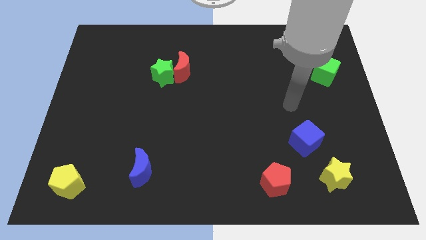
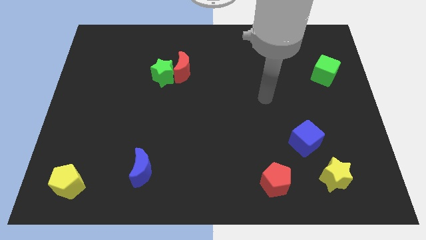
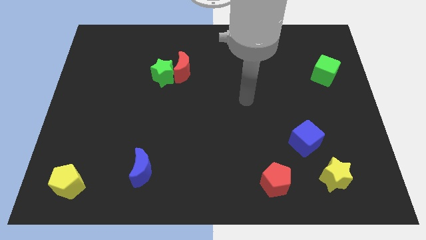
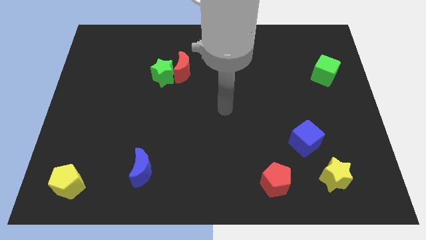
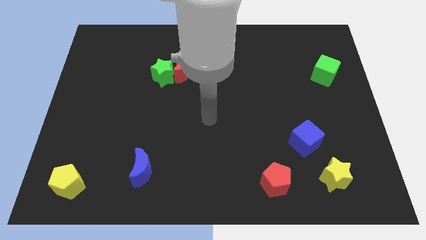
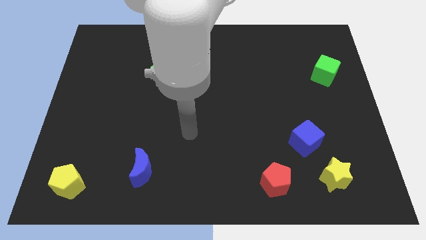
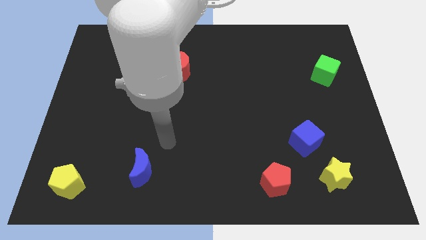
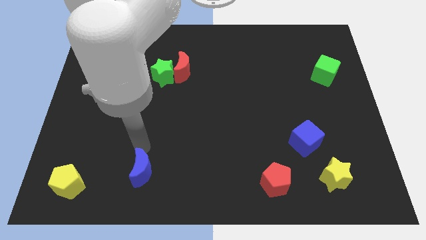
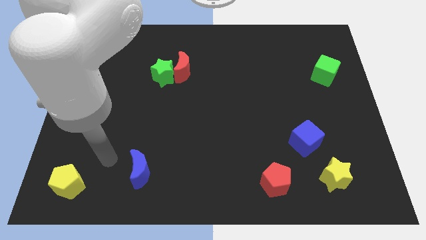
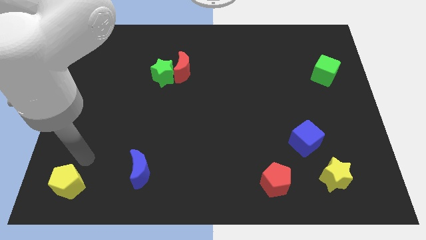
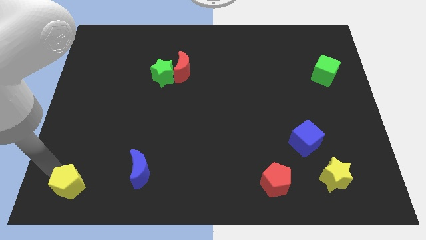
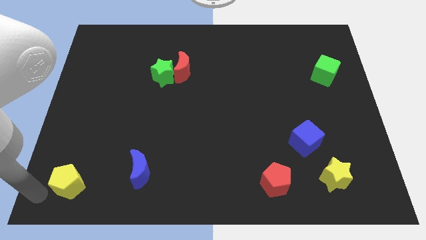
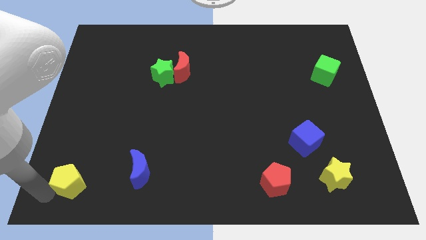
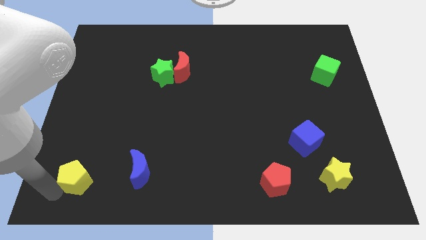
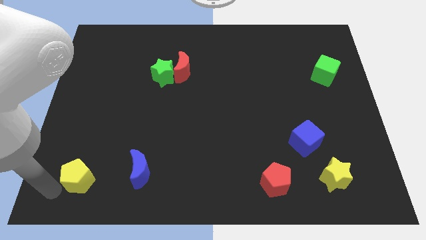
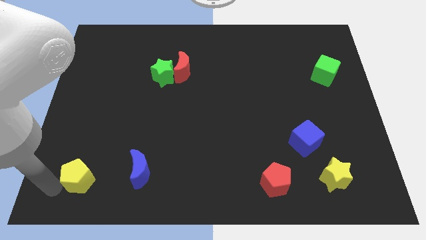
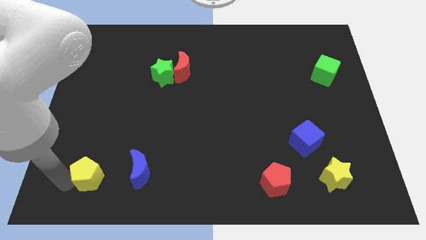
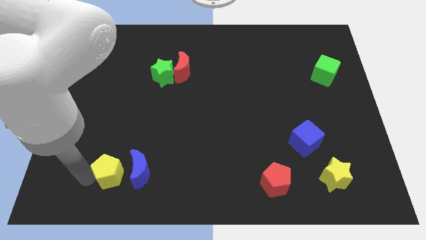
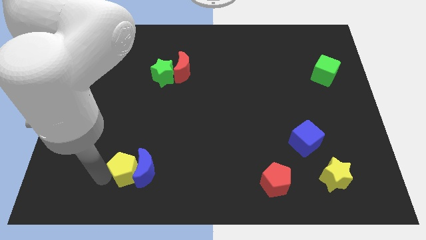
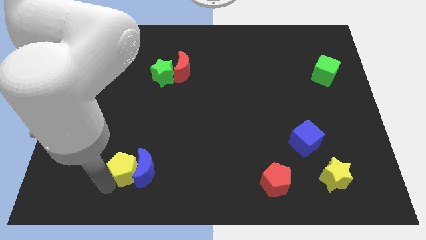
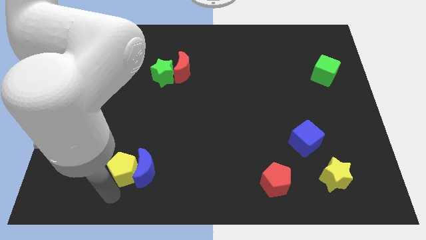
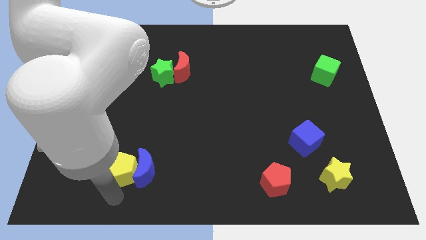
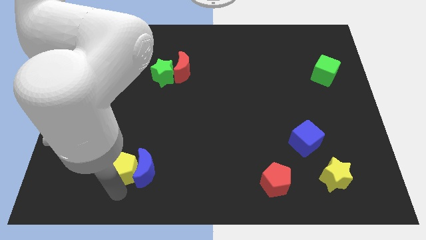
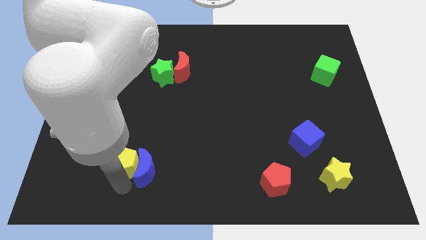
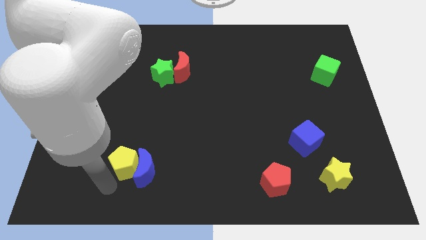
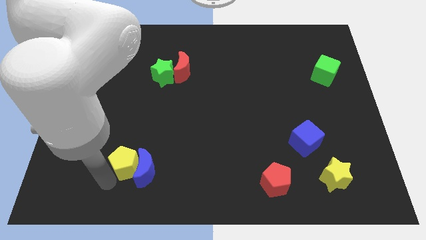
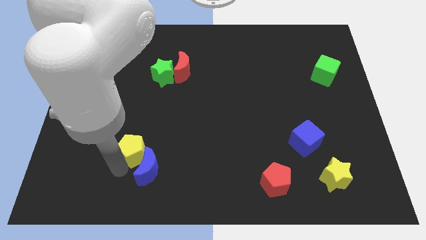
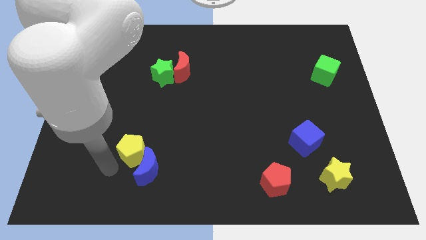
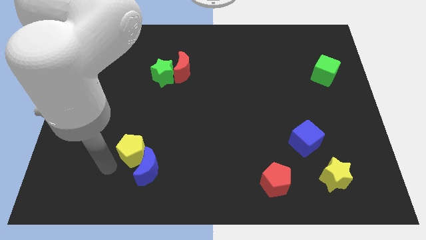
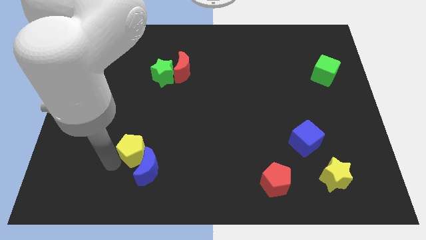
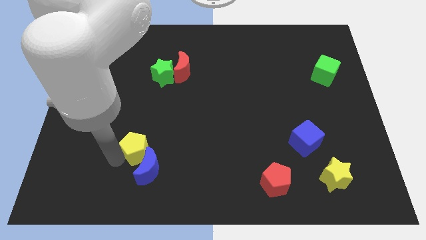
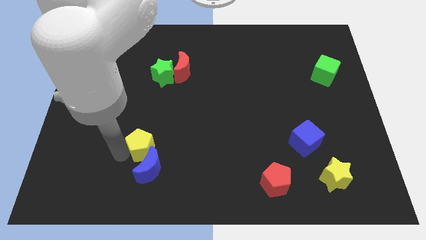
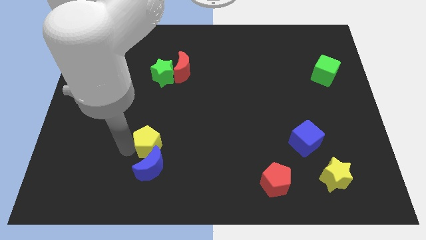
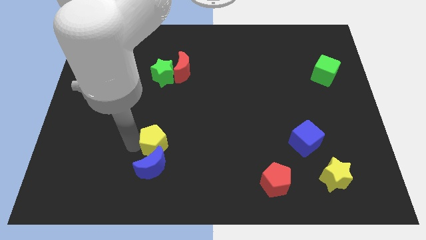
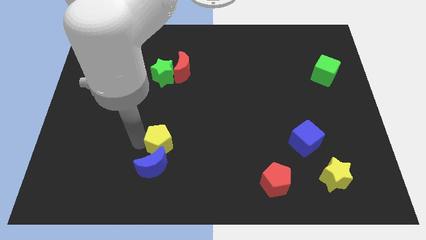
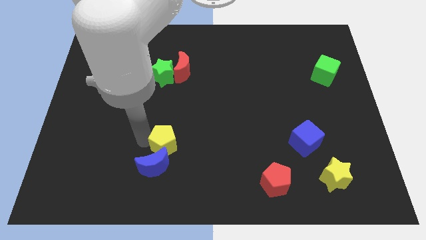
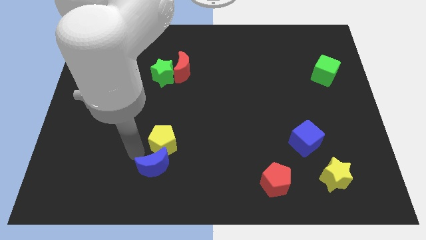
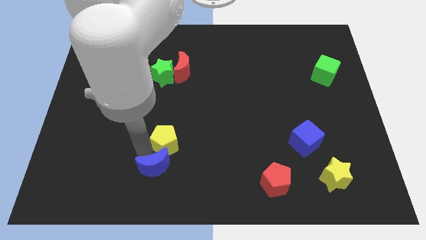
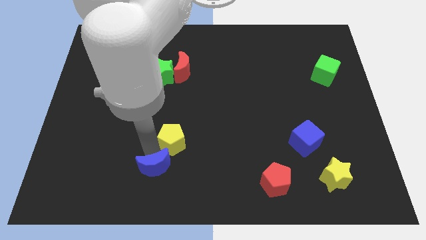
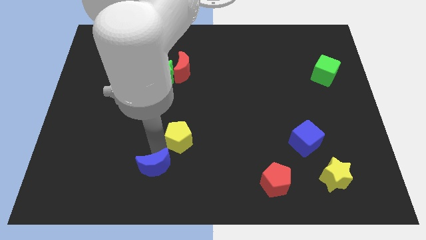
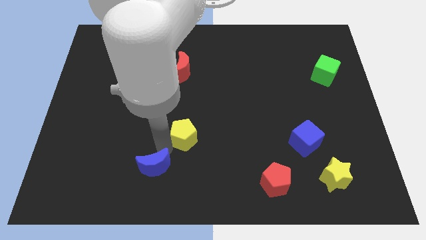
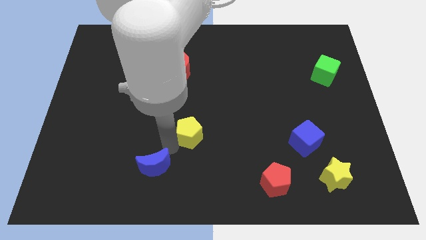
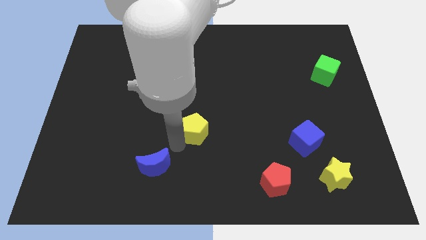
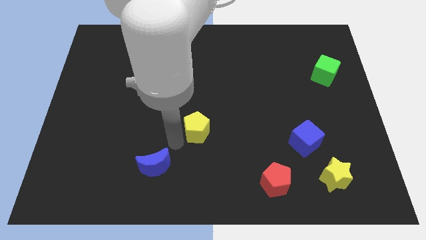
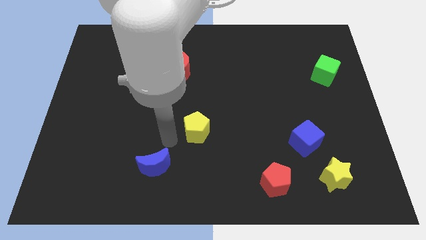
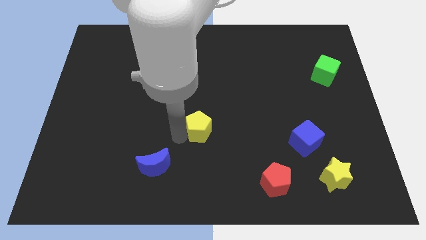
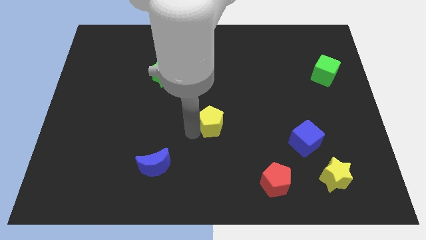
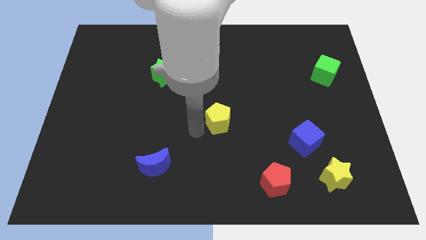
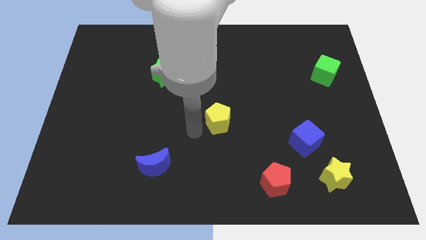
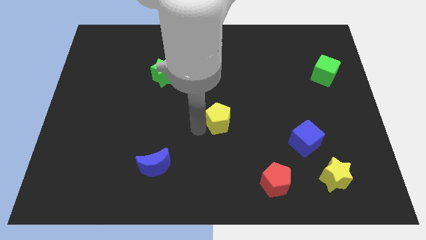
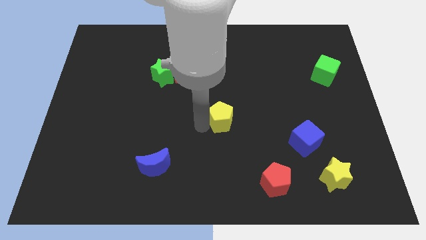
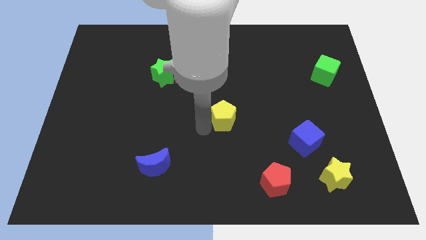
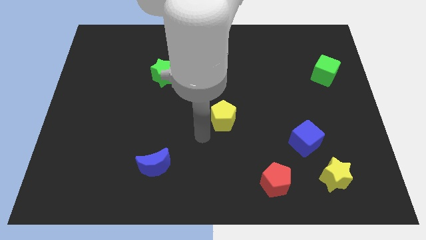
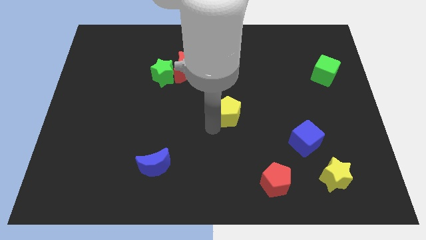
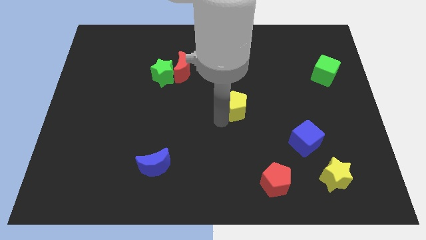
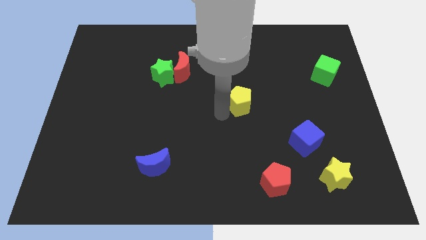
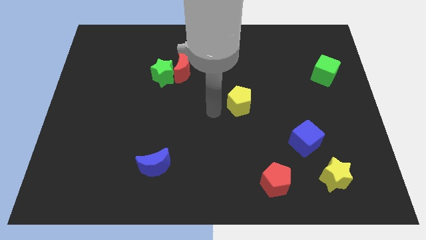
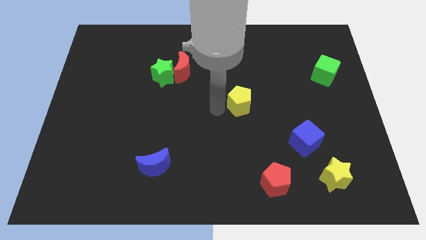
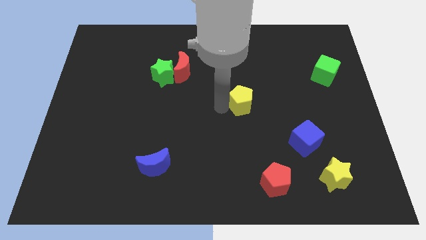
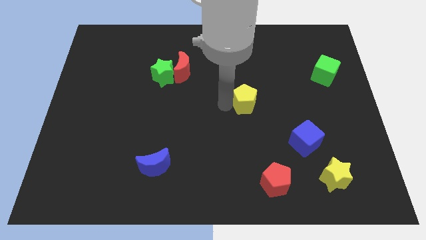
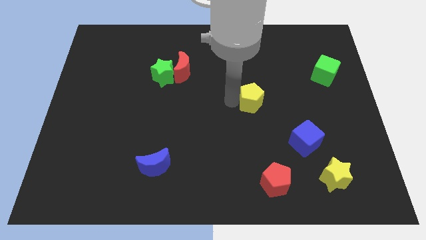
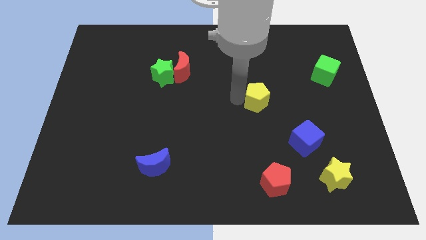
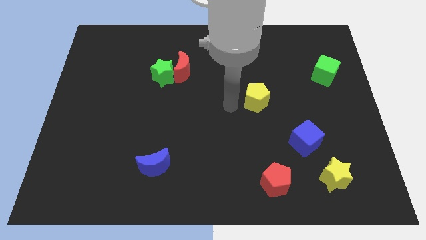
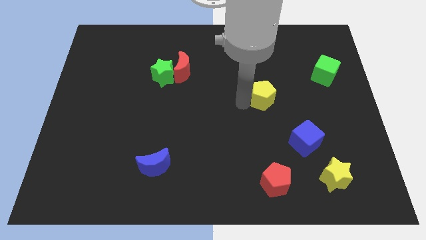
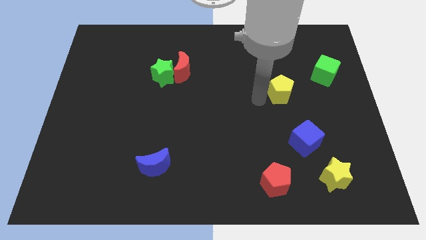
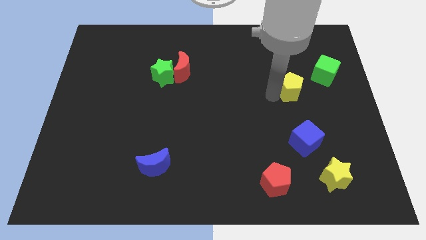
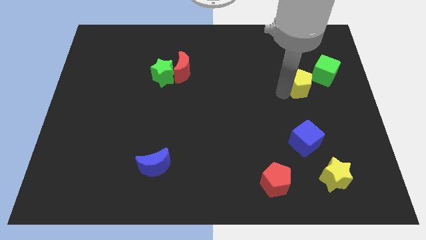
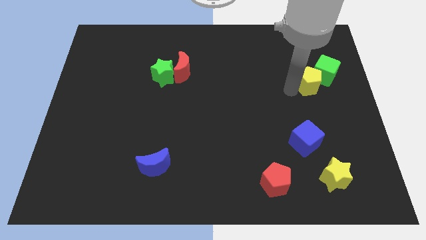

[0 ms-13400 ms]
move the yellow pentagon next to the green cube
